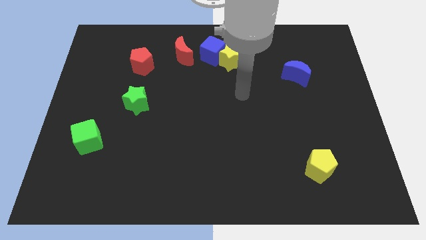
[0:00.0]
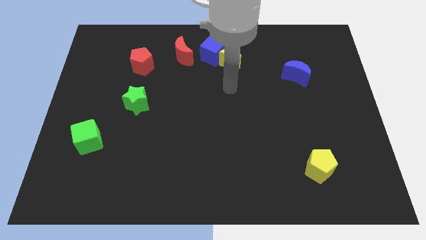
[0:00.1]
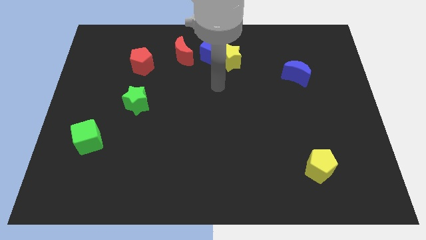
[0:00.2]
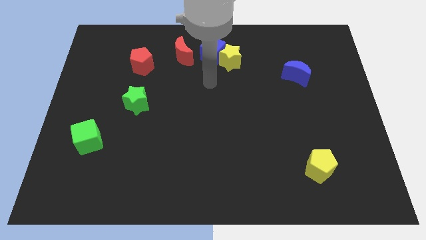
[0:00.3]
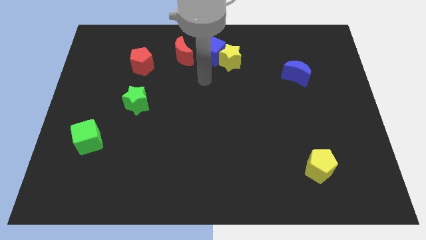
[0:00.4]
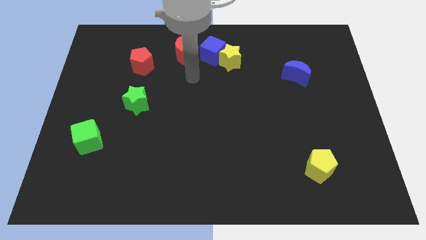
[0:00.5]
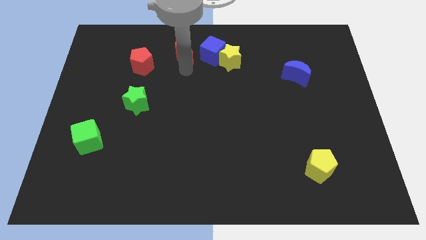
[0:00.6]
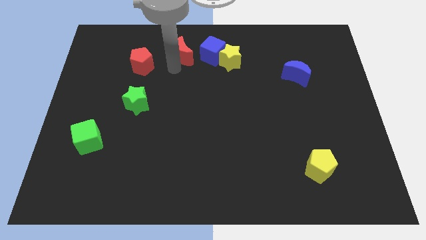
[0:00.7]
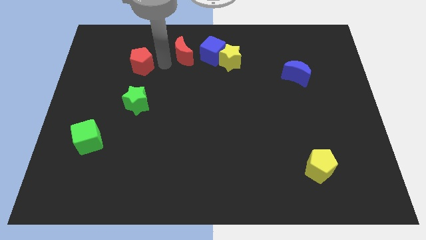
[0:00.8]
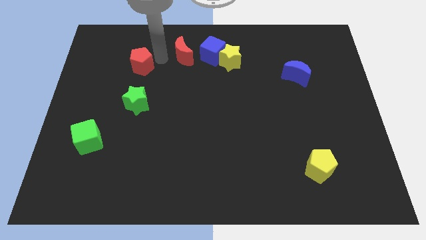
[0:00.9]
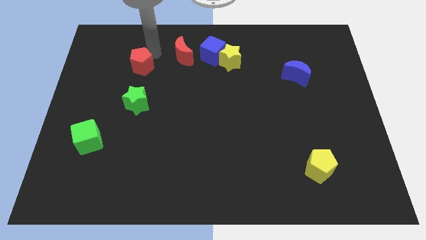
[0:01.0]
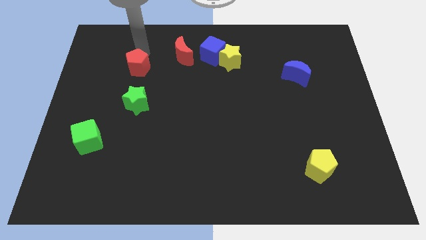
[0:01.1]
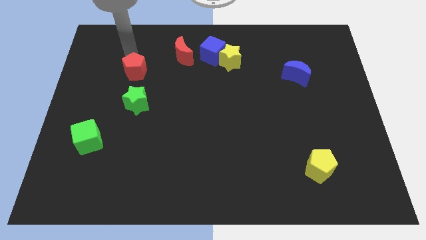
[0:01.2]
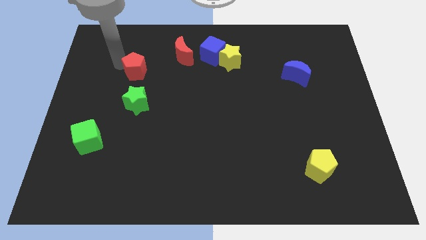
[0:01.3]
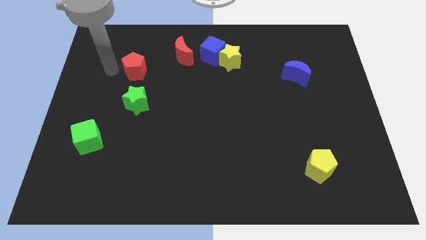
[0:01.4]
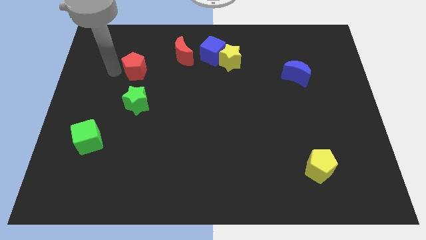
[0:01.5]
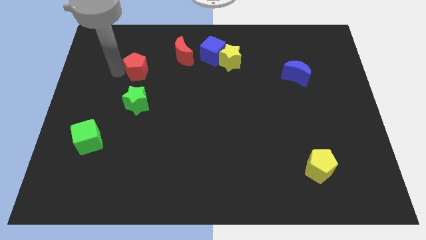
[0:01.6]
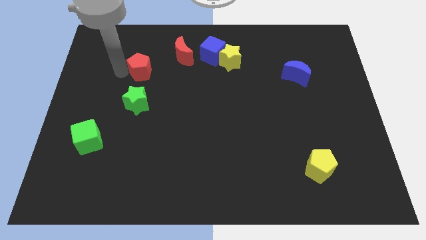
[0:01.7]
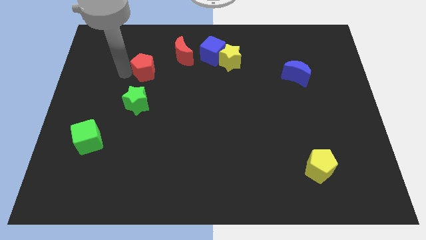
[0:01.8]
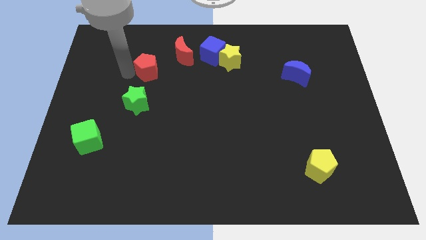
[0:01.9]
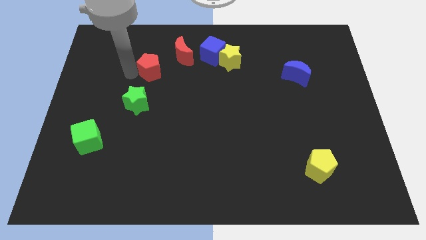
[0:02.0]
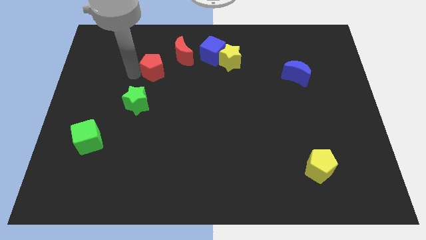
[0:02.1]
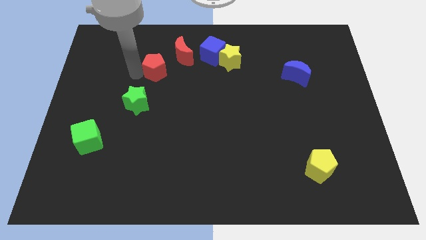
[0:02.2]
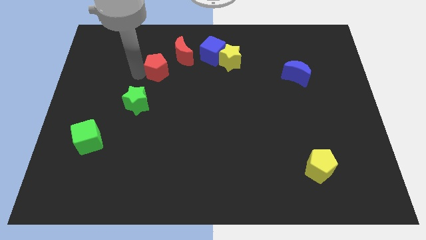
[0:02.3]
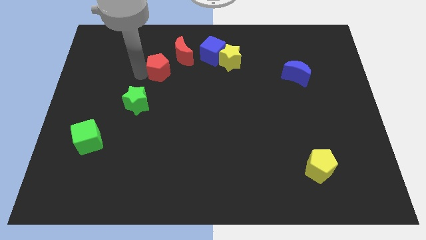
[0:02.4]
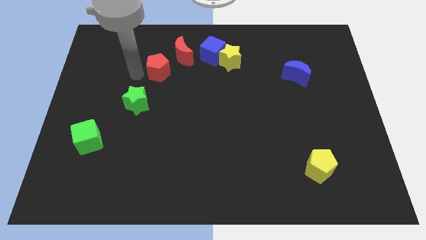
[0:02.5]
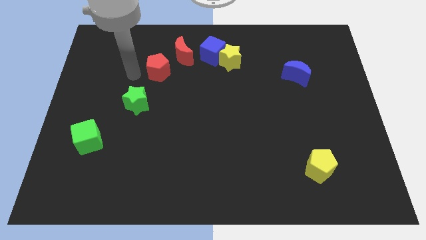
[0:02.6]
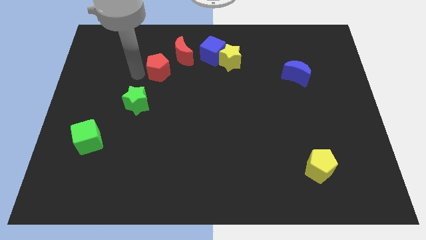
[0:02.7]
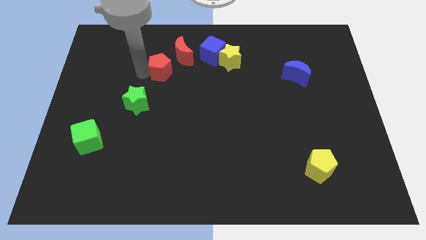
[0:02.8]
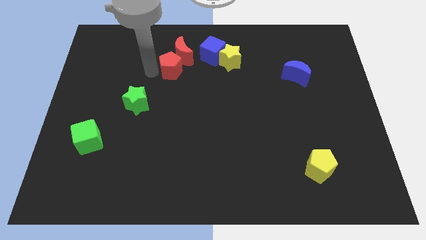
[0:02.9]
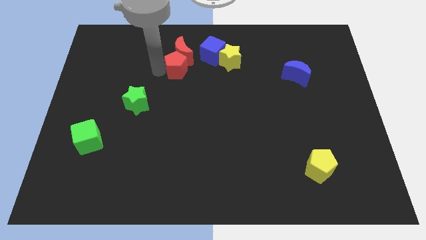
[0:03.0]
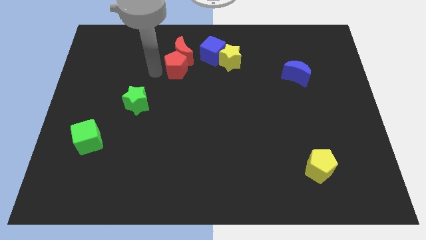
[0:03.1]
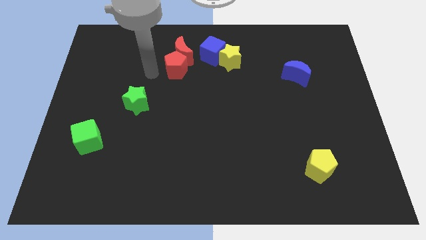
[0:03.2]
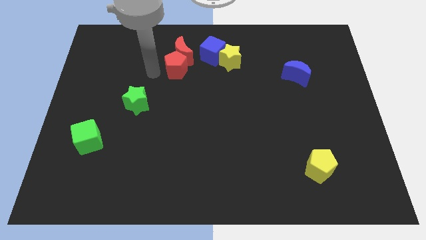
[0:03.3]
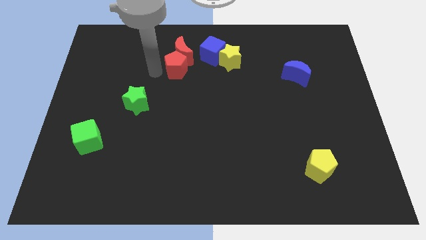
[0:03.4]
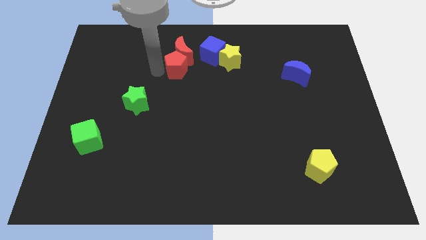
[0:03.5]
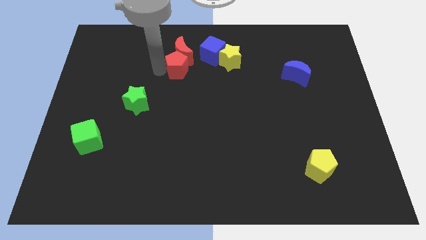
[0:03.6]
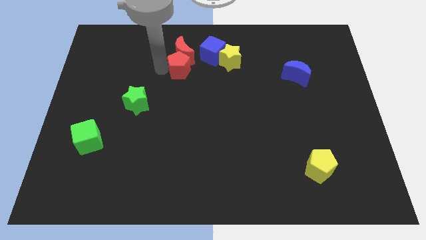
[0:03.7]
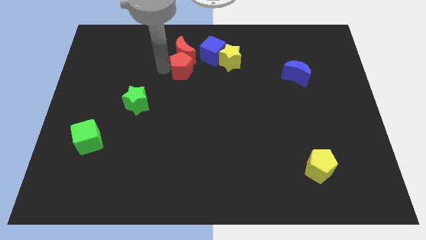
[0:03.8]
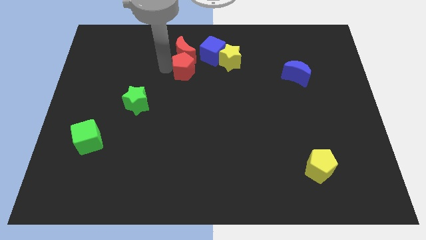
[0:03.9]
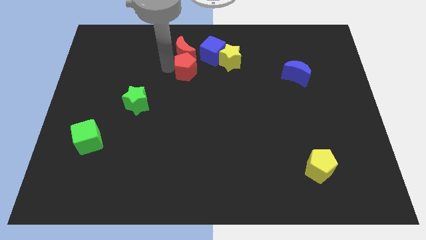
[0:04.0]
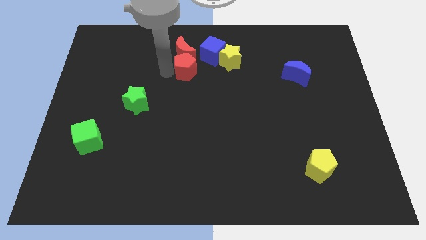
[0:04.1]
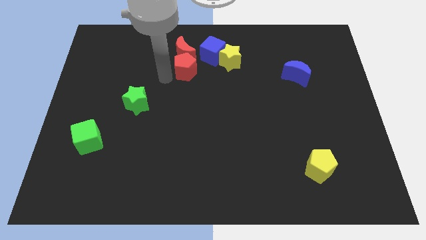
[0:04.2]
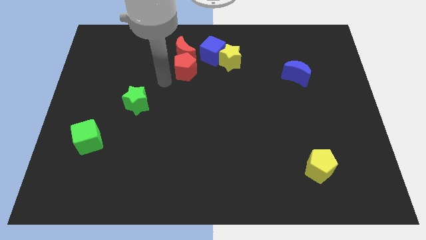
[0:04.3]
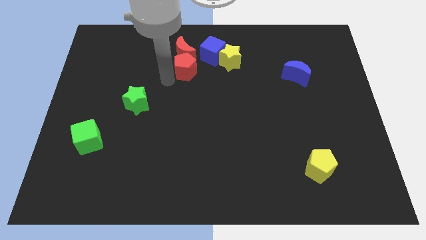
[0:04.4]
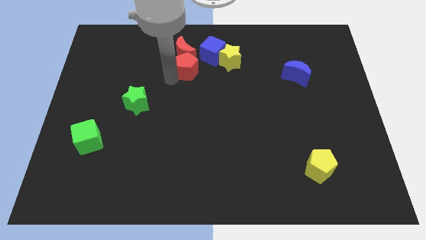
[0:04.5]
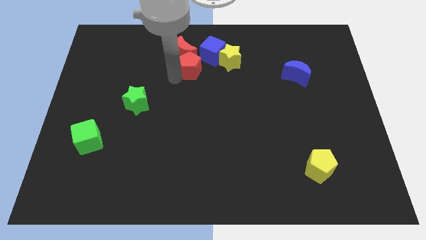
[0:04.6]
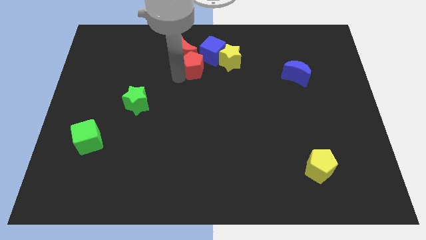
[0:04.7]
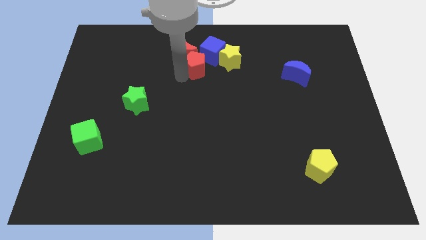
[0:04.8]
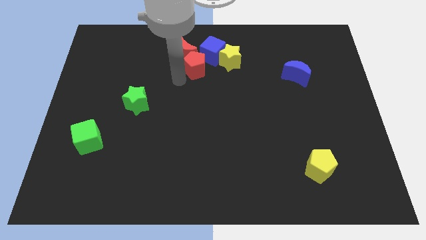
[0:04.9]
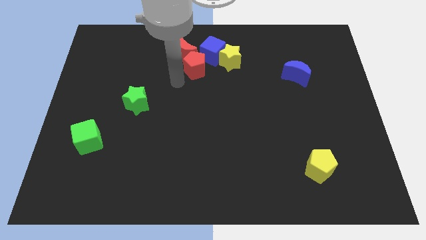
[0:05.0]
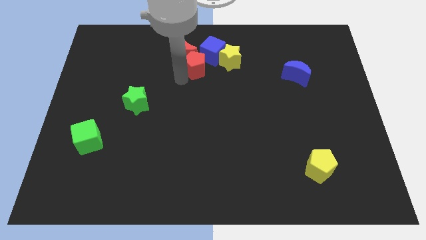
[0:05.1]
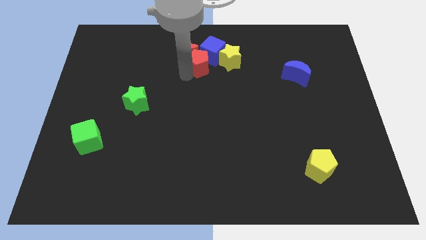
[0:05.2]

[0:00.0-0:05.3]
put the red pentagon close to the blue cube

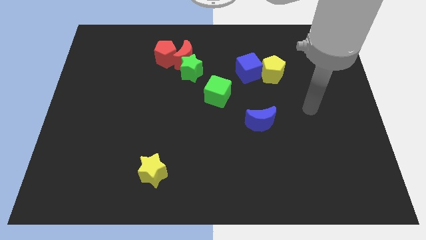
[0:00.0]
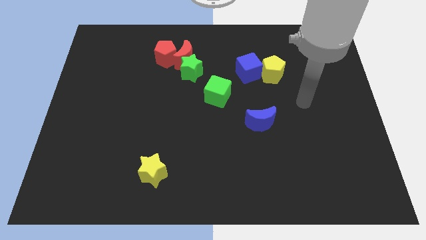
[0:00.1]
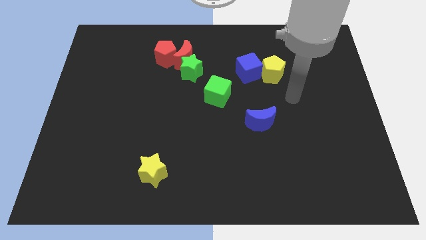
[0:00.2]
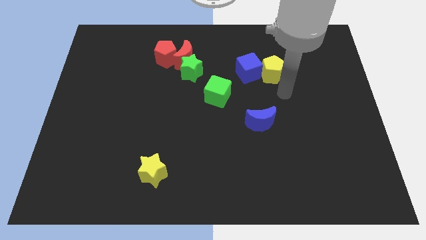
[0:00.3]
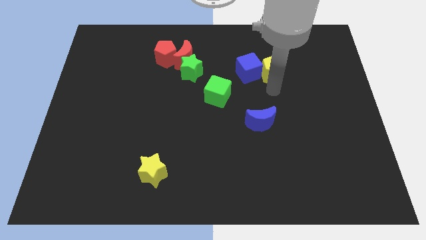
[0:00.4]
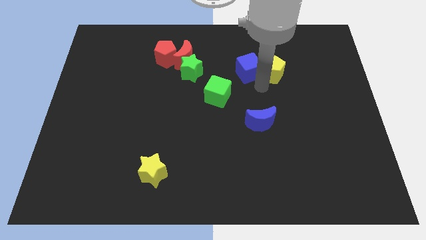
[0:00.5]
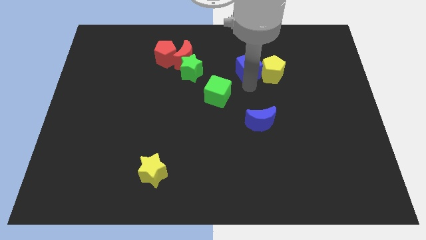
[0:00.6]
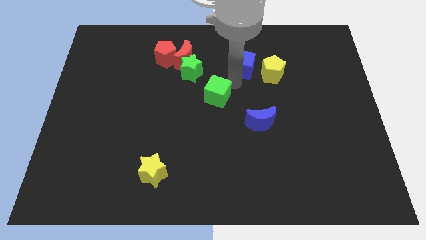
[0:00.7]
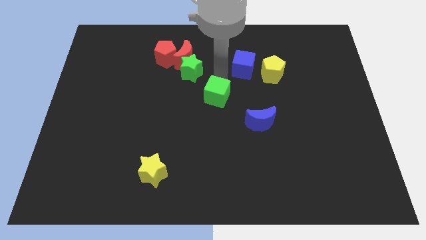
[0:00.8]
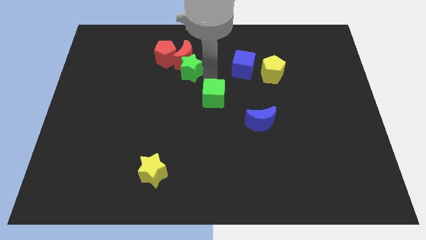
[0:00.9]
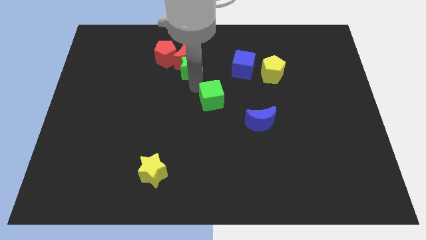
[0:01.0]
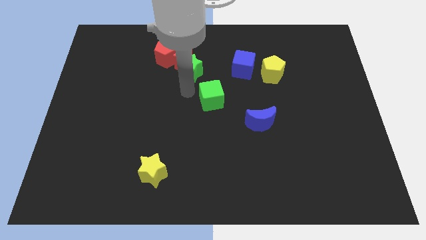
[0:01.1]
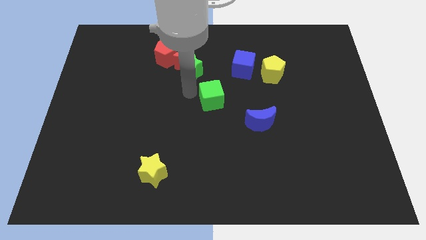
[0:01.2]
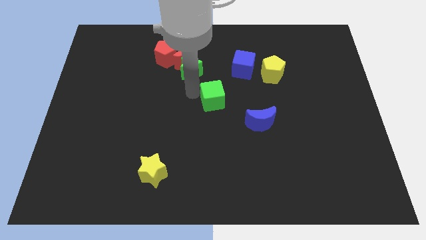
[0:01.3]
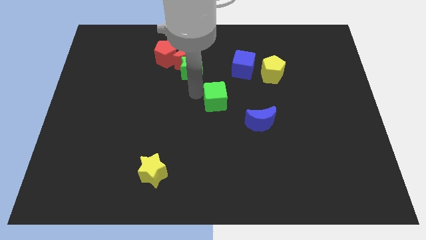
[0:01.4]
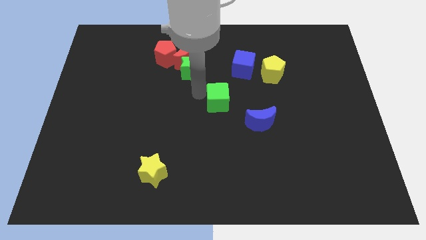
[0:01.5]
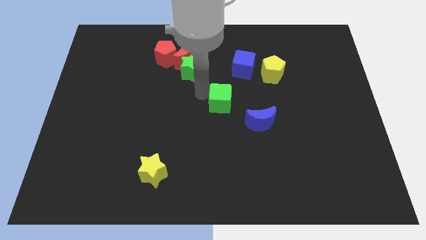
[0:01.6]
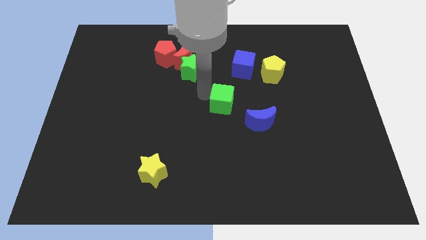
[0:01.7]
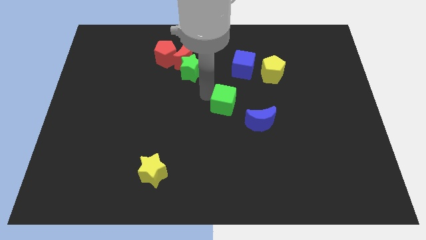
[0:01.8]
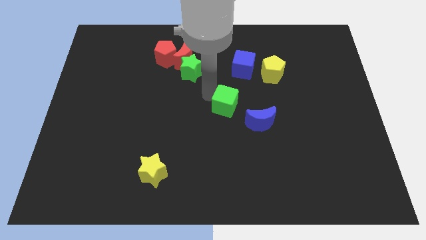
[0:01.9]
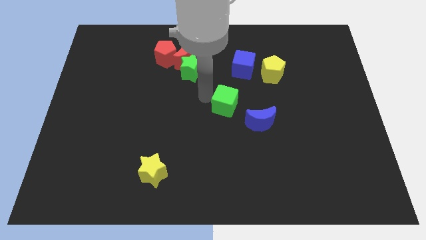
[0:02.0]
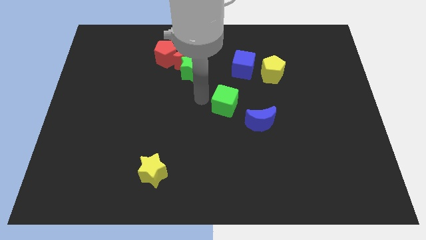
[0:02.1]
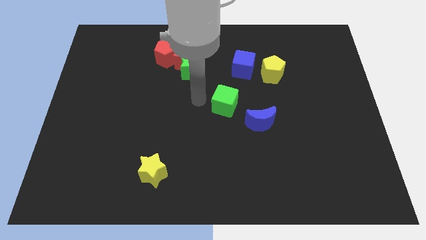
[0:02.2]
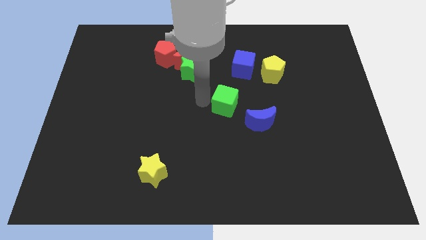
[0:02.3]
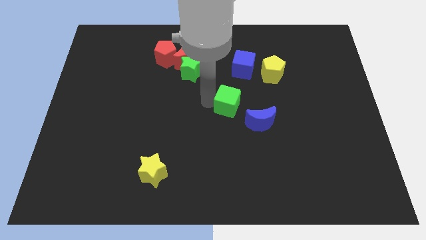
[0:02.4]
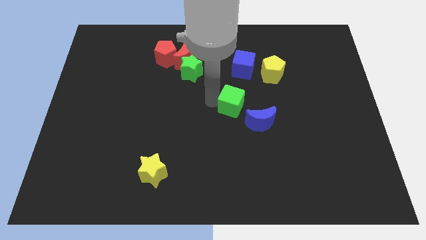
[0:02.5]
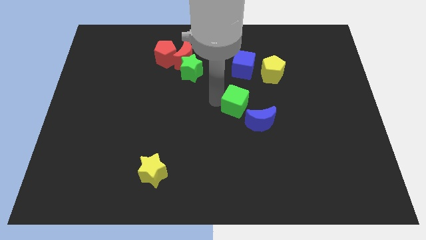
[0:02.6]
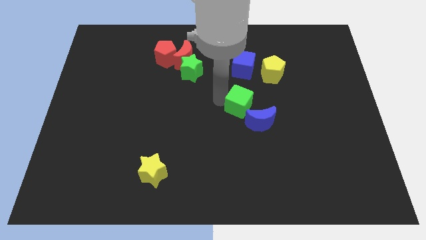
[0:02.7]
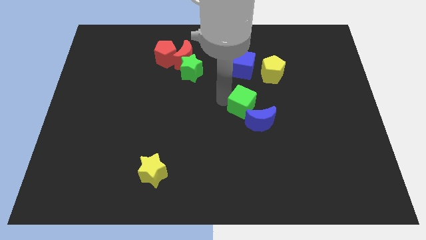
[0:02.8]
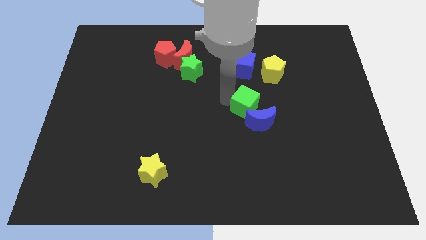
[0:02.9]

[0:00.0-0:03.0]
put the green cube to the blue moon
